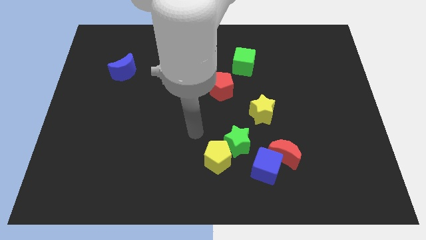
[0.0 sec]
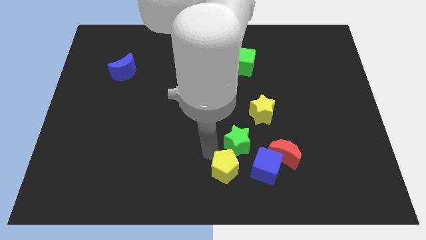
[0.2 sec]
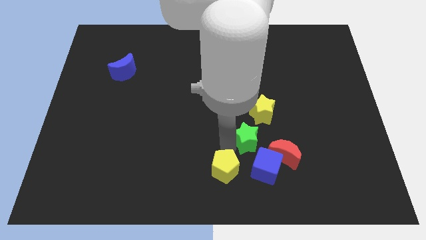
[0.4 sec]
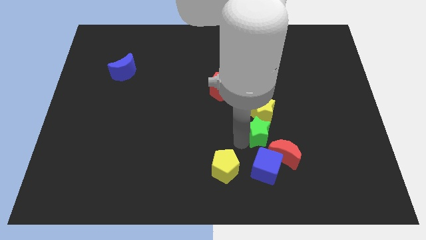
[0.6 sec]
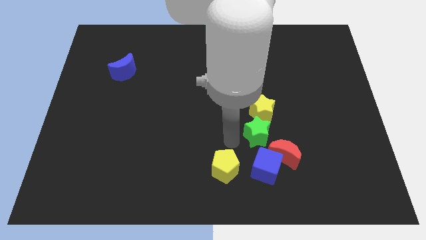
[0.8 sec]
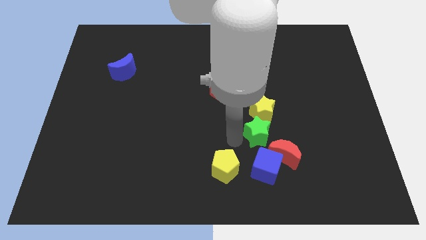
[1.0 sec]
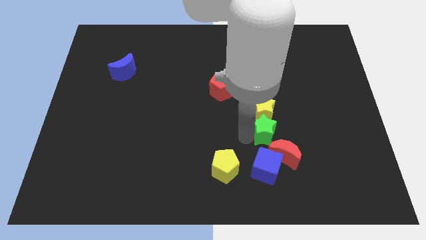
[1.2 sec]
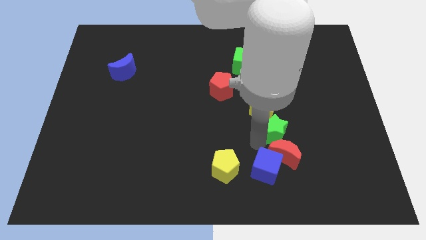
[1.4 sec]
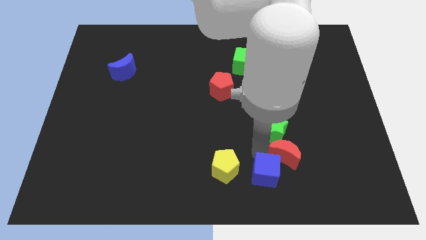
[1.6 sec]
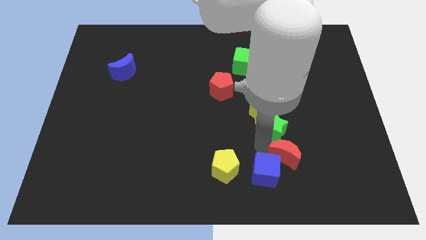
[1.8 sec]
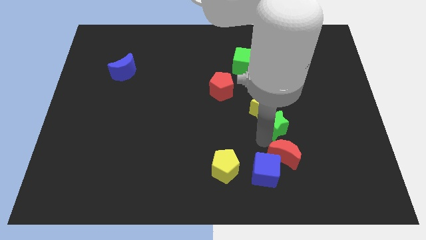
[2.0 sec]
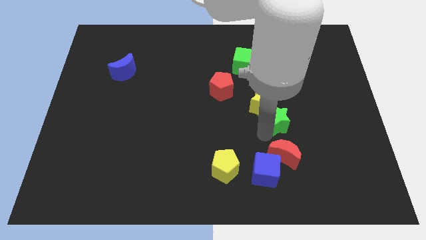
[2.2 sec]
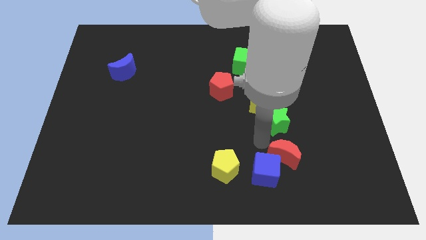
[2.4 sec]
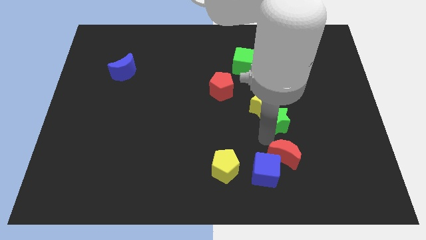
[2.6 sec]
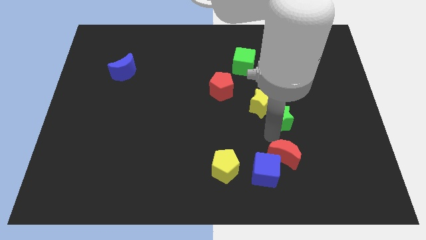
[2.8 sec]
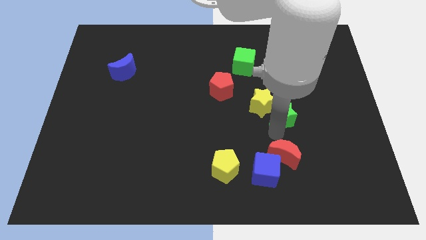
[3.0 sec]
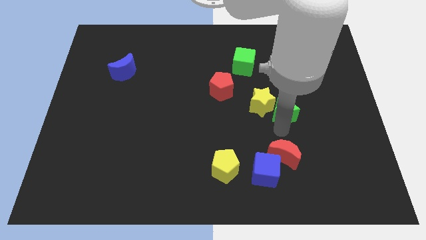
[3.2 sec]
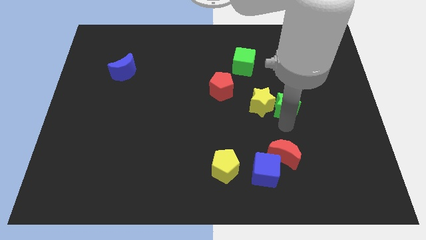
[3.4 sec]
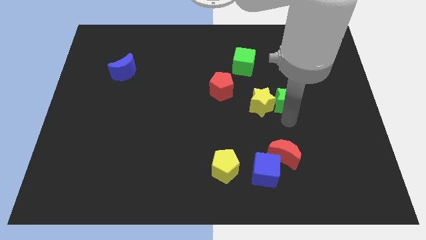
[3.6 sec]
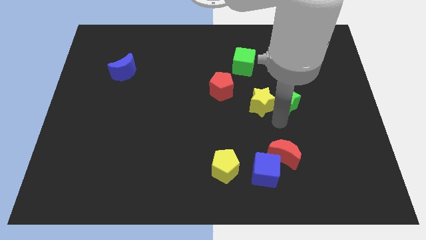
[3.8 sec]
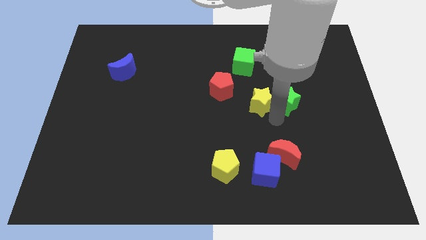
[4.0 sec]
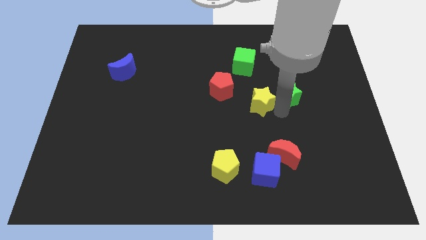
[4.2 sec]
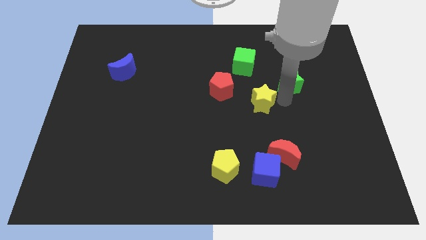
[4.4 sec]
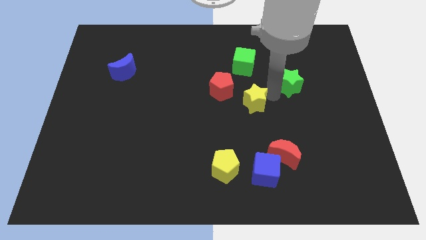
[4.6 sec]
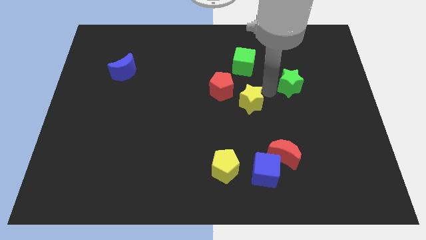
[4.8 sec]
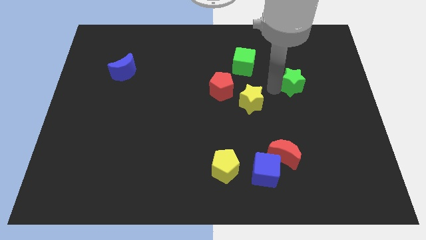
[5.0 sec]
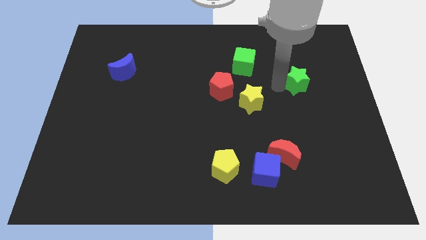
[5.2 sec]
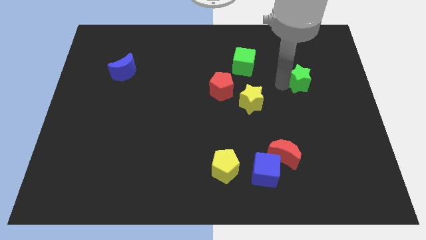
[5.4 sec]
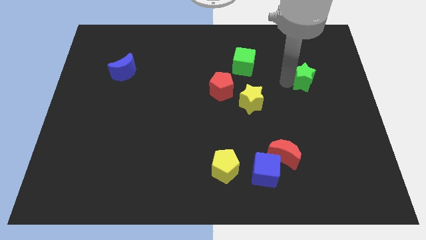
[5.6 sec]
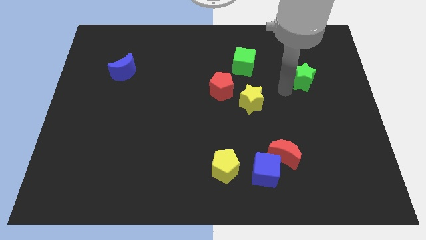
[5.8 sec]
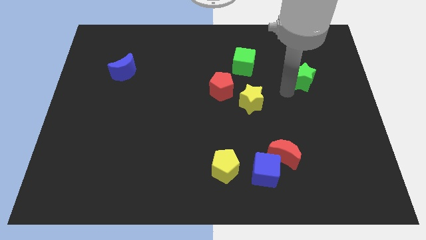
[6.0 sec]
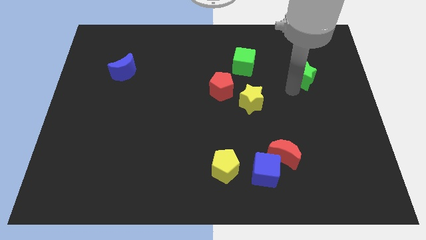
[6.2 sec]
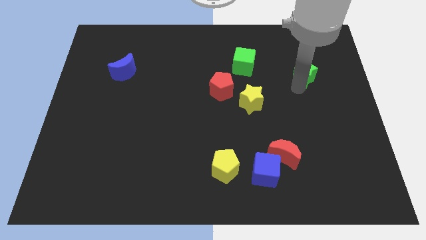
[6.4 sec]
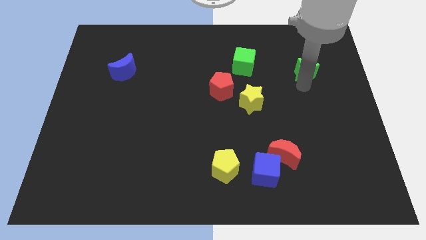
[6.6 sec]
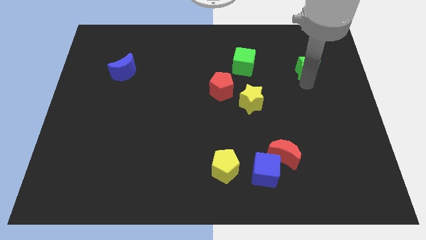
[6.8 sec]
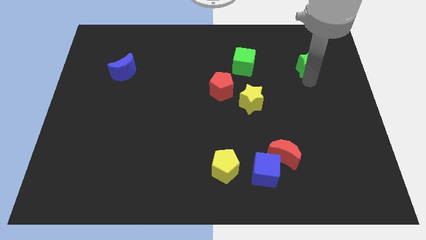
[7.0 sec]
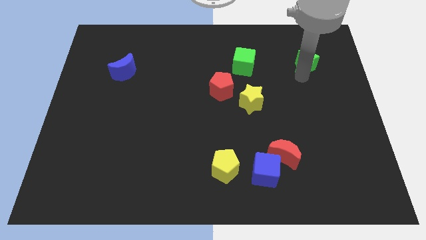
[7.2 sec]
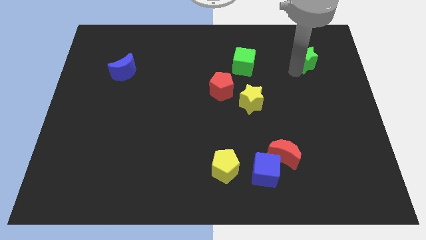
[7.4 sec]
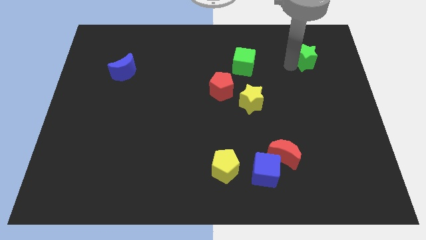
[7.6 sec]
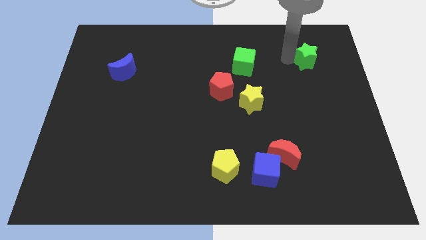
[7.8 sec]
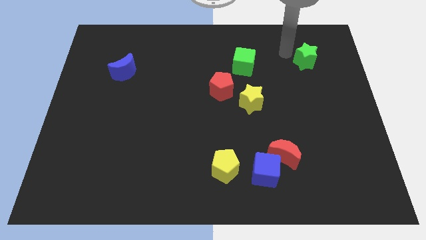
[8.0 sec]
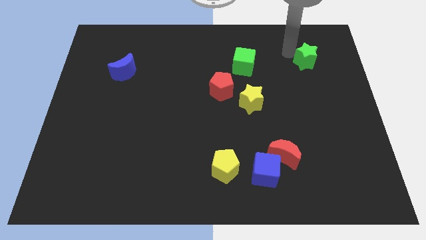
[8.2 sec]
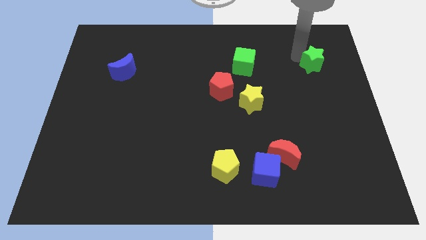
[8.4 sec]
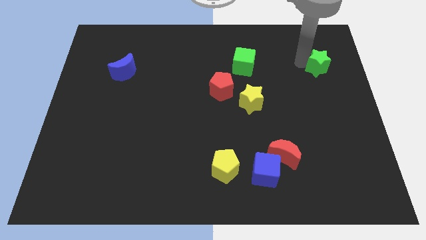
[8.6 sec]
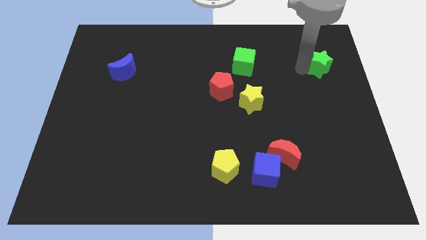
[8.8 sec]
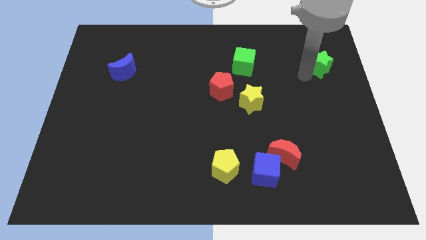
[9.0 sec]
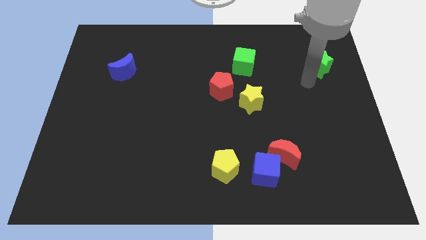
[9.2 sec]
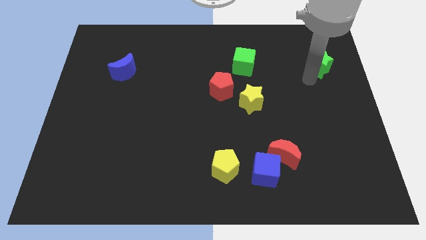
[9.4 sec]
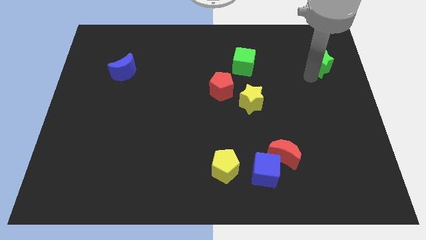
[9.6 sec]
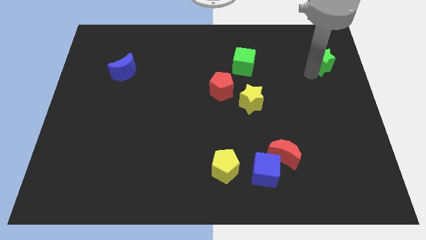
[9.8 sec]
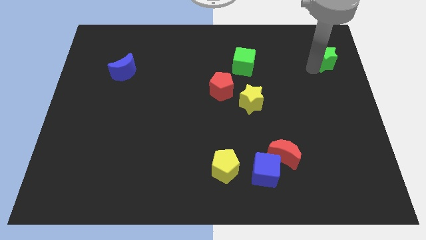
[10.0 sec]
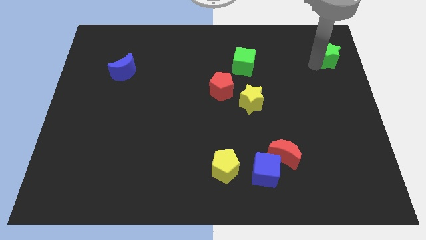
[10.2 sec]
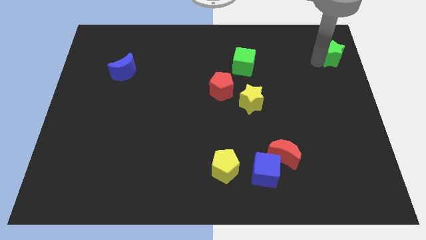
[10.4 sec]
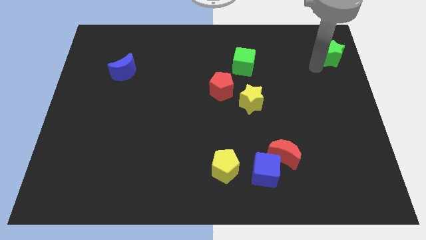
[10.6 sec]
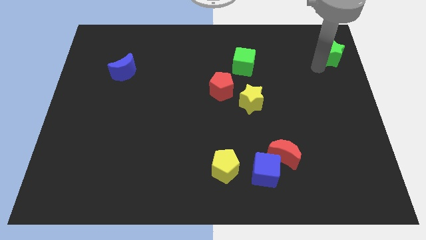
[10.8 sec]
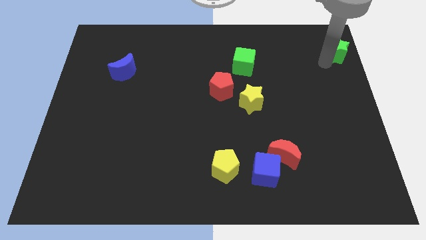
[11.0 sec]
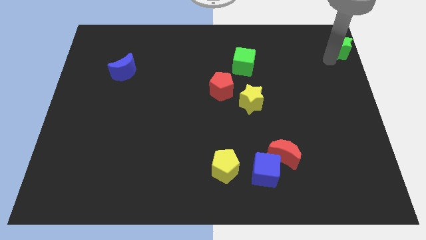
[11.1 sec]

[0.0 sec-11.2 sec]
slide the green star to the top right of the board

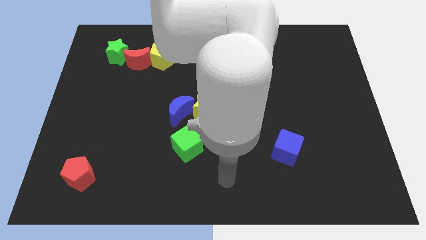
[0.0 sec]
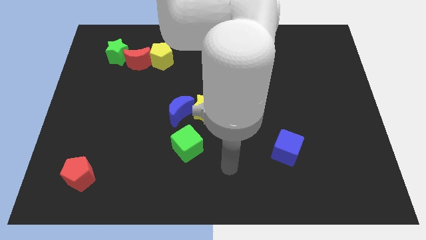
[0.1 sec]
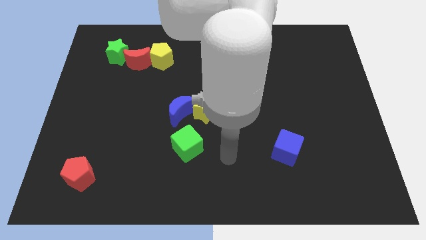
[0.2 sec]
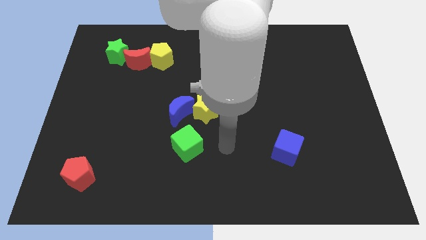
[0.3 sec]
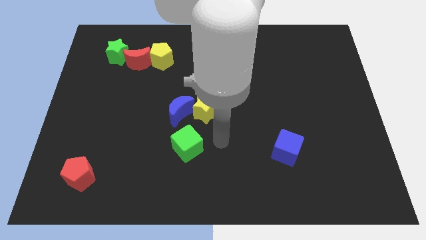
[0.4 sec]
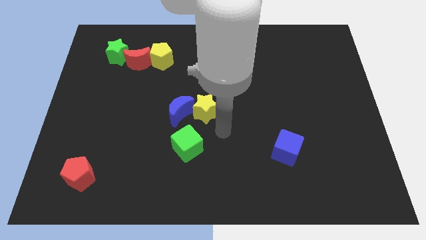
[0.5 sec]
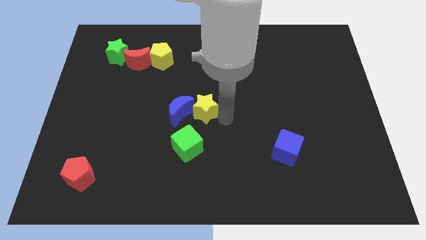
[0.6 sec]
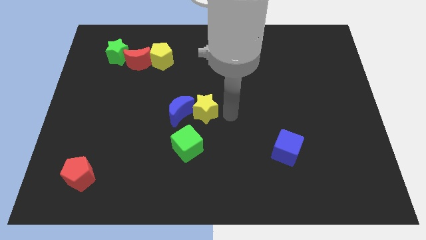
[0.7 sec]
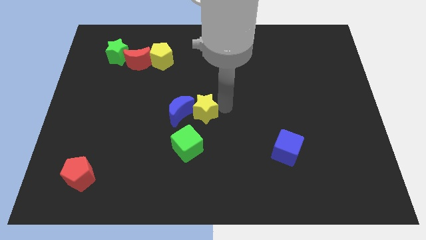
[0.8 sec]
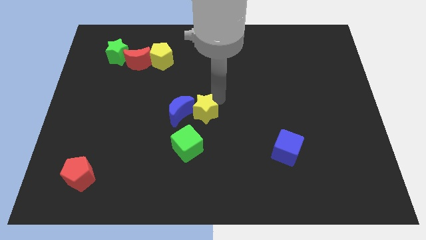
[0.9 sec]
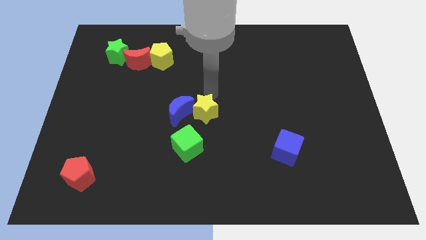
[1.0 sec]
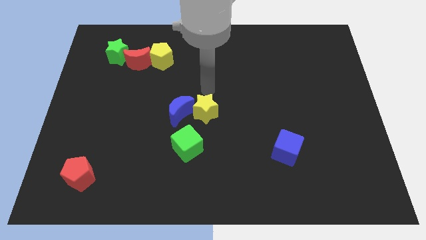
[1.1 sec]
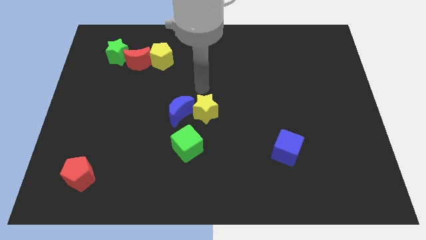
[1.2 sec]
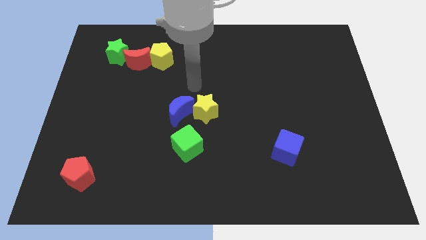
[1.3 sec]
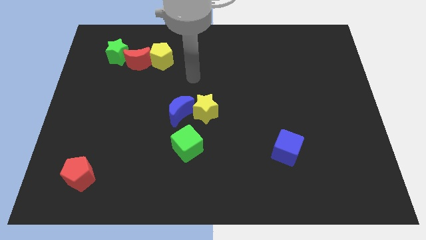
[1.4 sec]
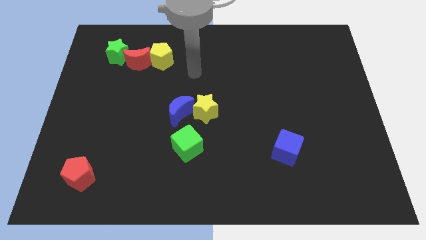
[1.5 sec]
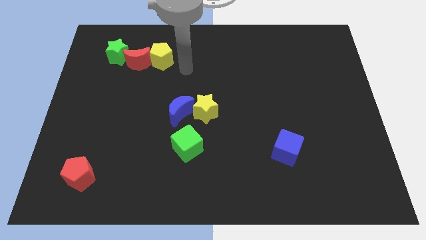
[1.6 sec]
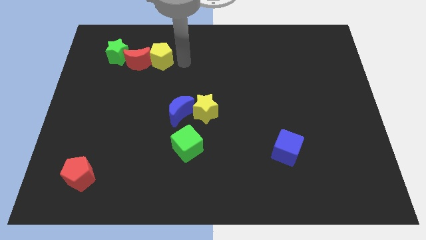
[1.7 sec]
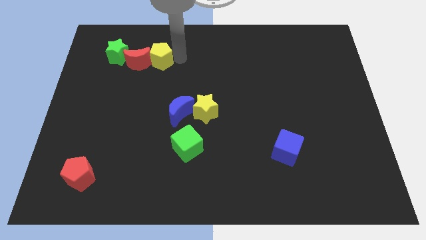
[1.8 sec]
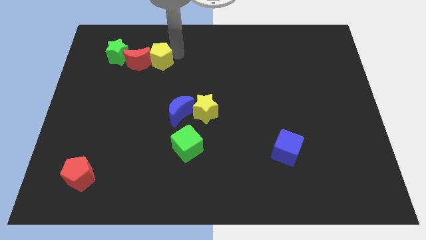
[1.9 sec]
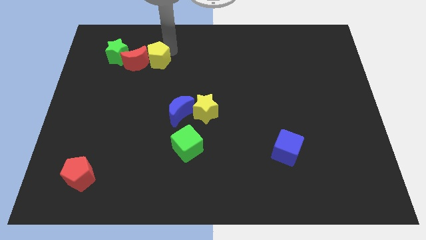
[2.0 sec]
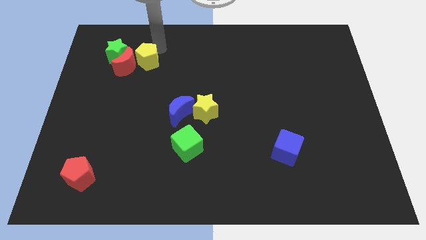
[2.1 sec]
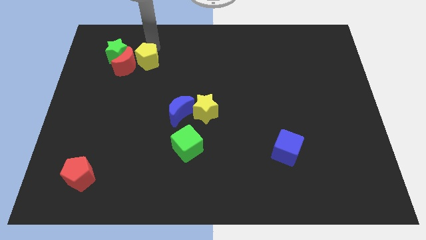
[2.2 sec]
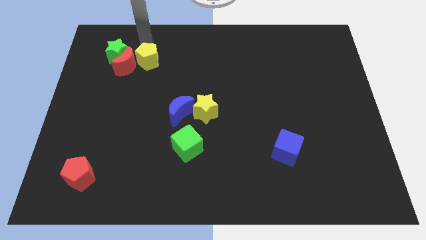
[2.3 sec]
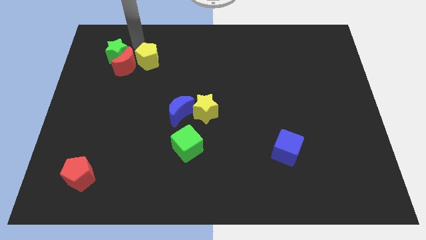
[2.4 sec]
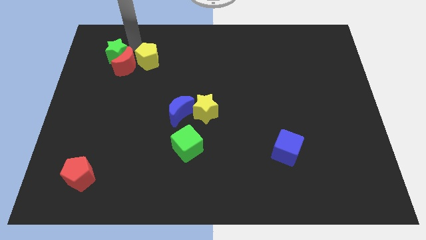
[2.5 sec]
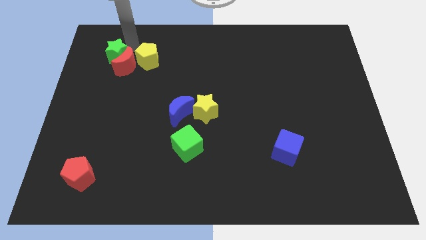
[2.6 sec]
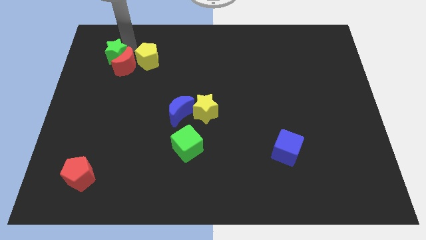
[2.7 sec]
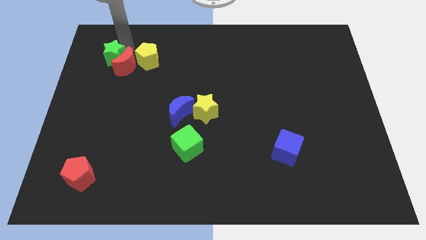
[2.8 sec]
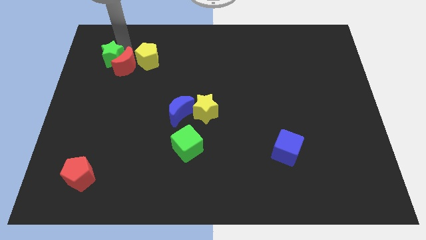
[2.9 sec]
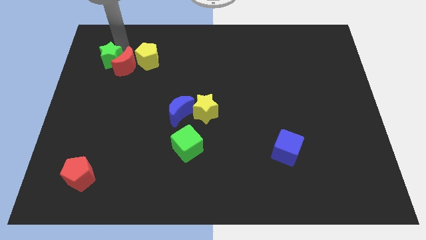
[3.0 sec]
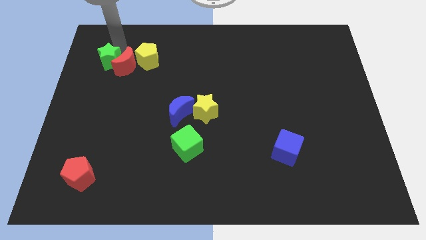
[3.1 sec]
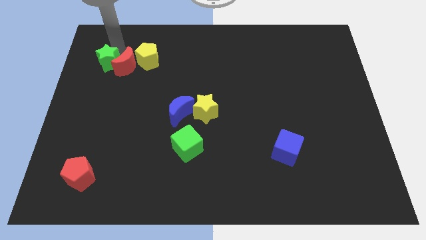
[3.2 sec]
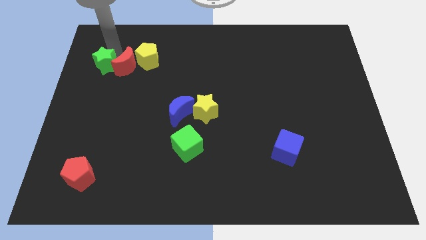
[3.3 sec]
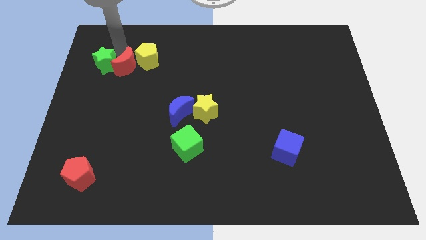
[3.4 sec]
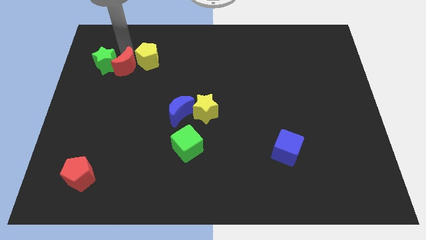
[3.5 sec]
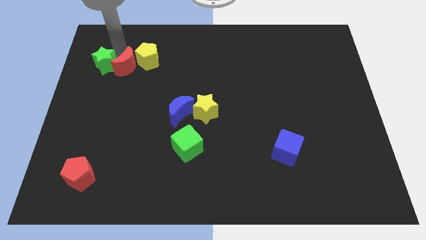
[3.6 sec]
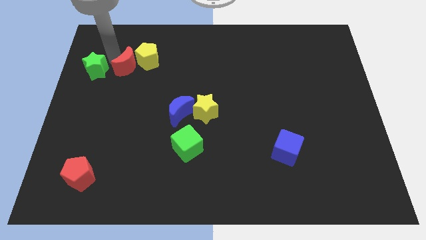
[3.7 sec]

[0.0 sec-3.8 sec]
move the green star to the left side
